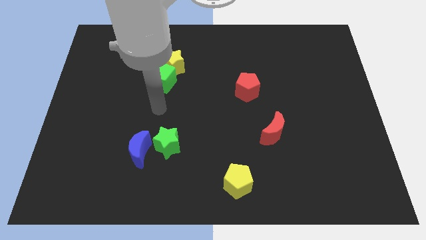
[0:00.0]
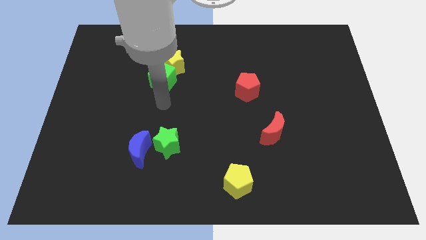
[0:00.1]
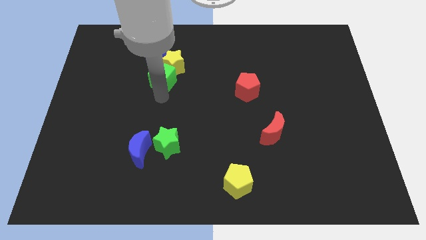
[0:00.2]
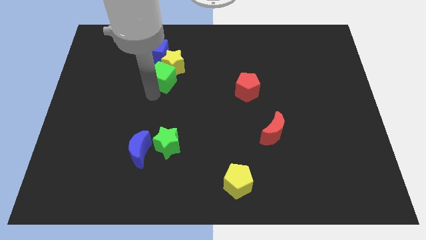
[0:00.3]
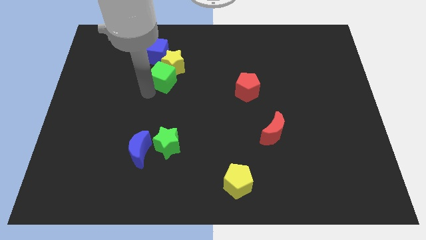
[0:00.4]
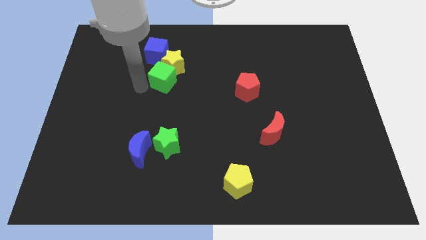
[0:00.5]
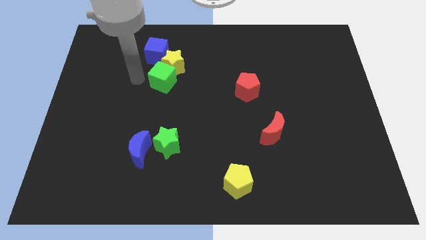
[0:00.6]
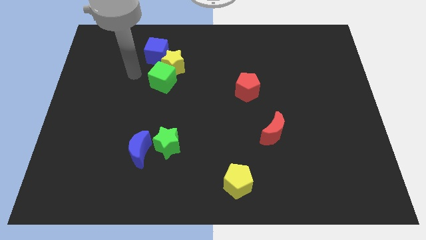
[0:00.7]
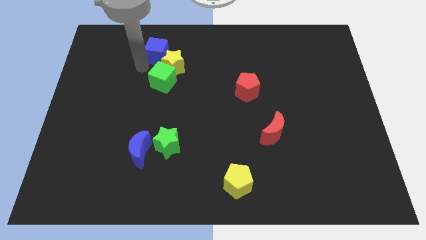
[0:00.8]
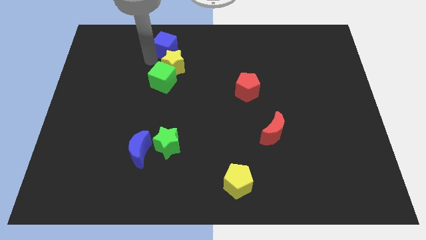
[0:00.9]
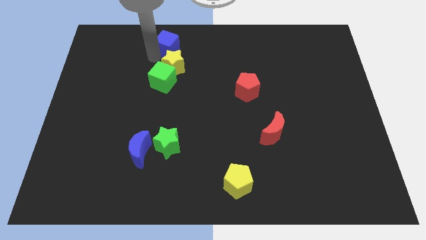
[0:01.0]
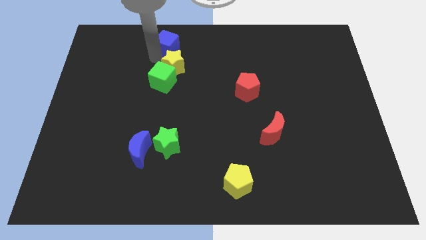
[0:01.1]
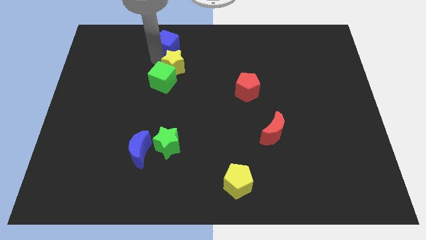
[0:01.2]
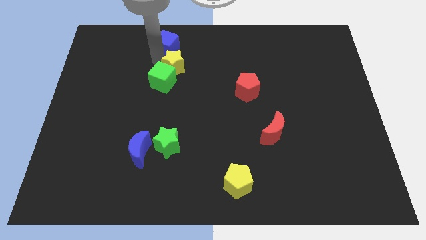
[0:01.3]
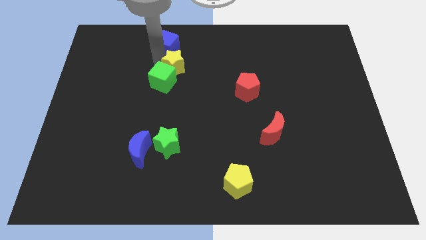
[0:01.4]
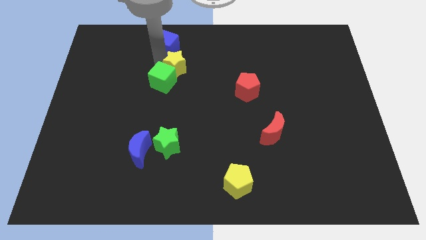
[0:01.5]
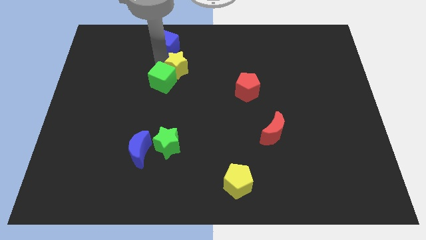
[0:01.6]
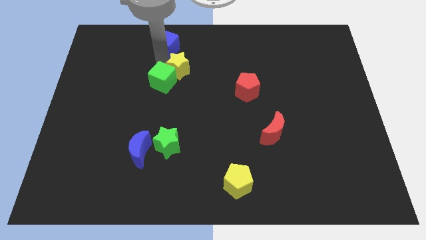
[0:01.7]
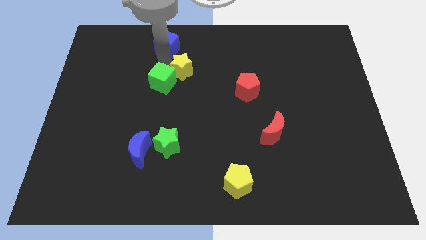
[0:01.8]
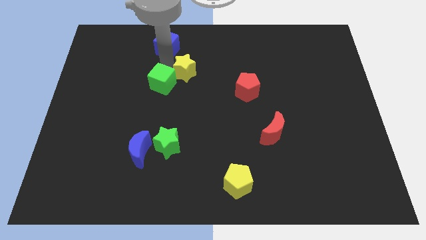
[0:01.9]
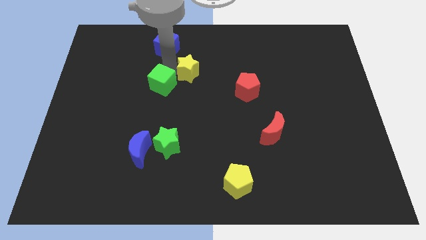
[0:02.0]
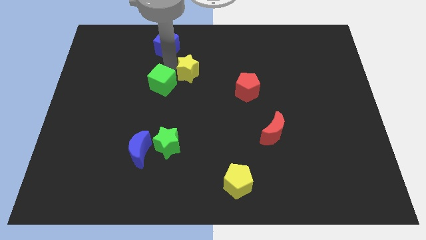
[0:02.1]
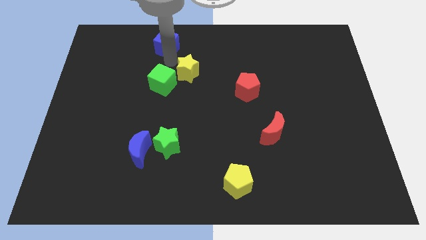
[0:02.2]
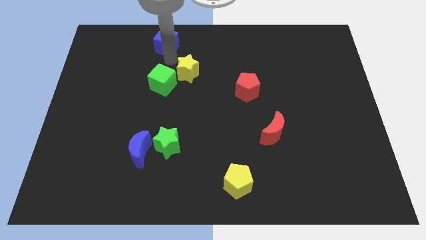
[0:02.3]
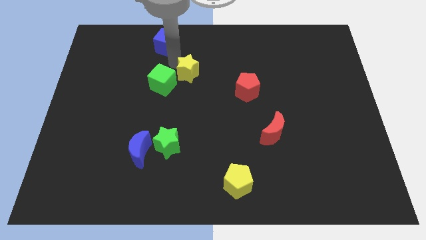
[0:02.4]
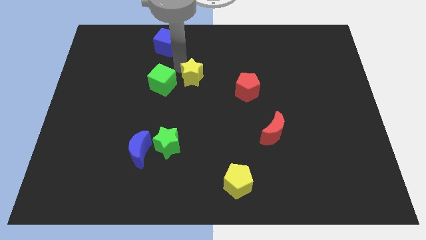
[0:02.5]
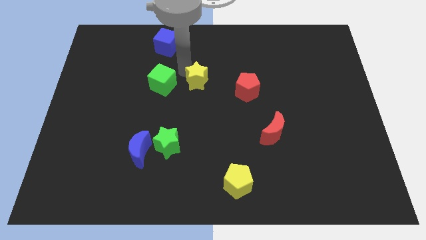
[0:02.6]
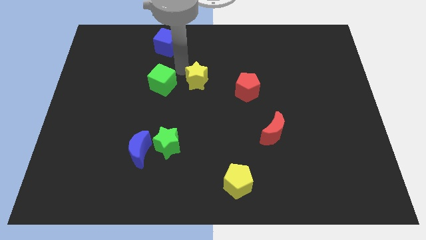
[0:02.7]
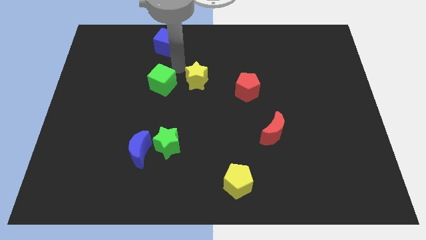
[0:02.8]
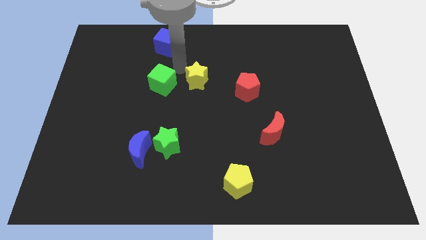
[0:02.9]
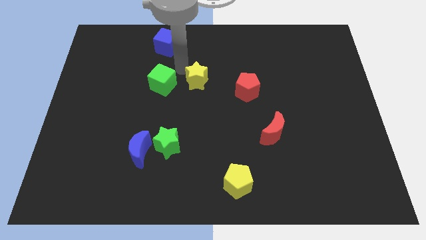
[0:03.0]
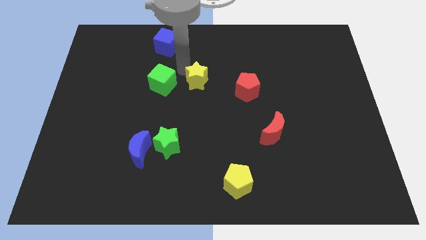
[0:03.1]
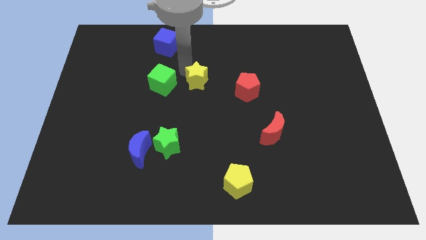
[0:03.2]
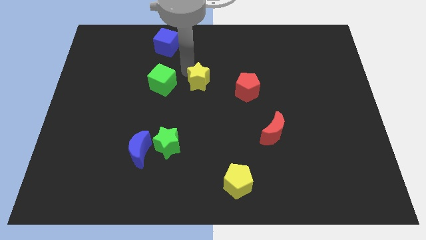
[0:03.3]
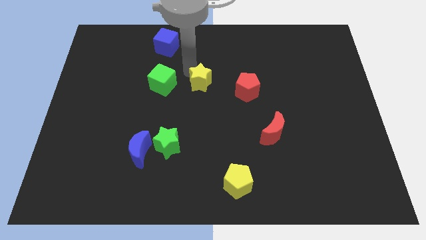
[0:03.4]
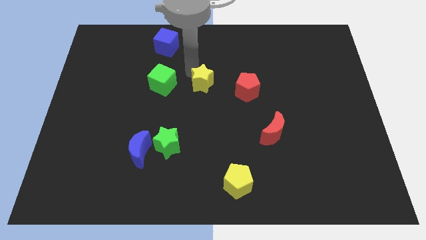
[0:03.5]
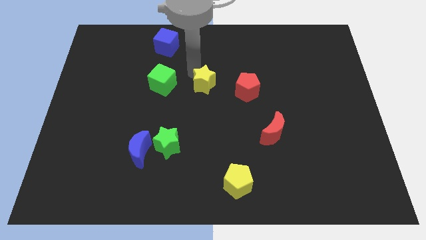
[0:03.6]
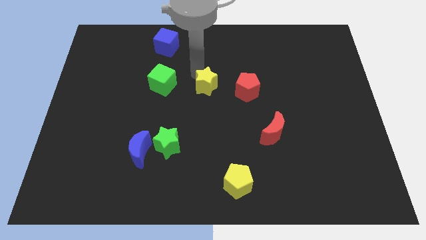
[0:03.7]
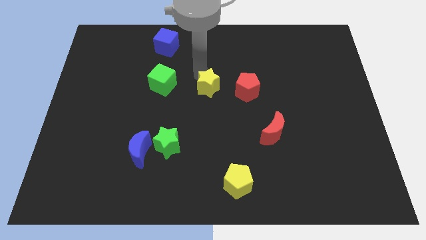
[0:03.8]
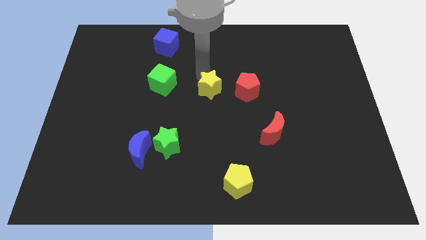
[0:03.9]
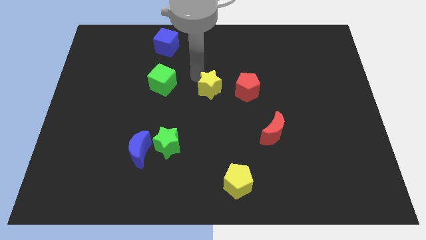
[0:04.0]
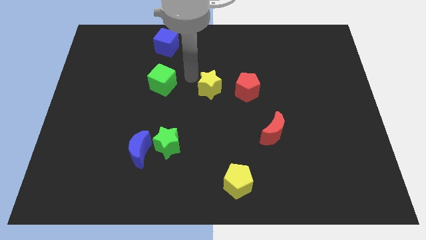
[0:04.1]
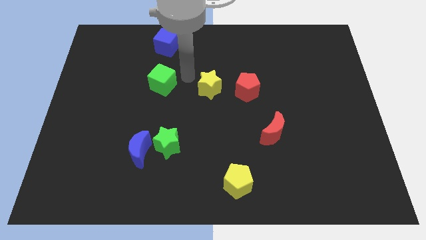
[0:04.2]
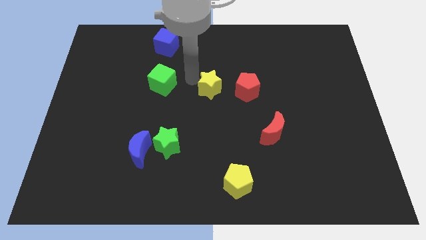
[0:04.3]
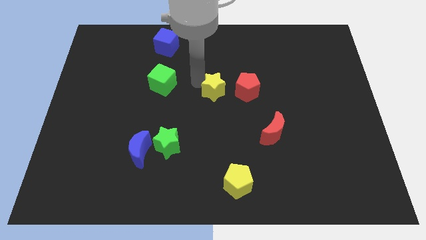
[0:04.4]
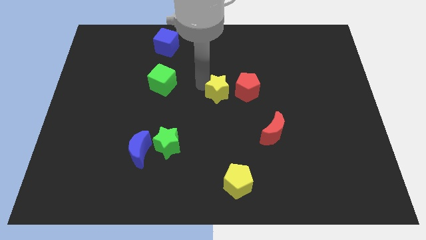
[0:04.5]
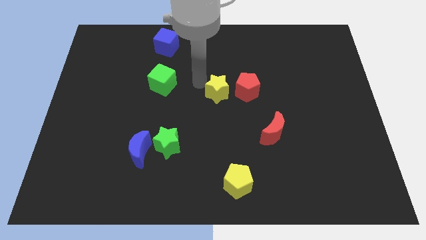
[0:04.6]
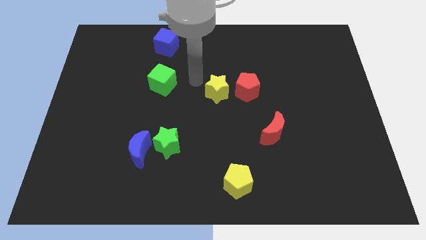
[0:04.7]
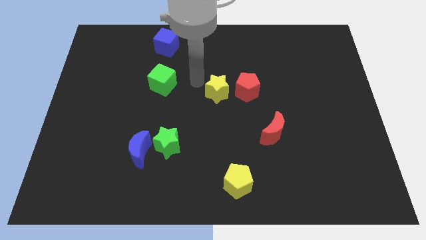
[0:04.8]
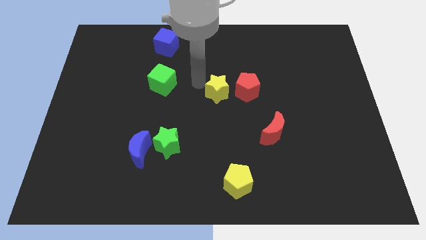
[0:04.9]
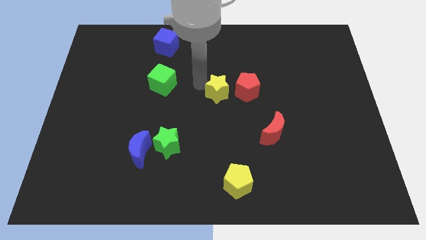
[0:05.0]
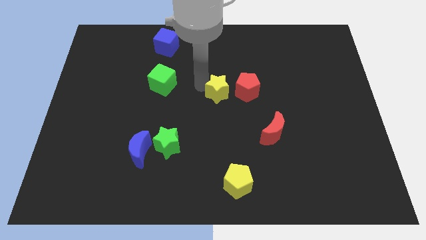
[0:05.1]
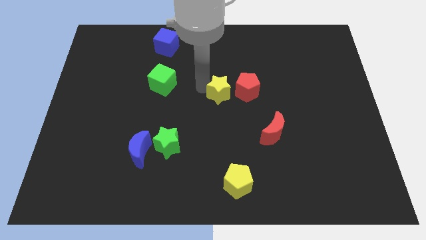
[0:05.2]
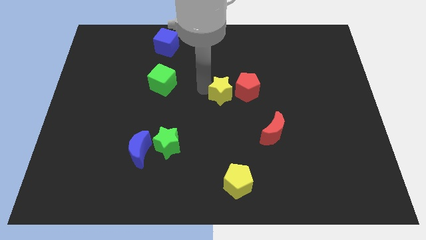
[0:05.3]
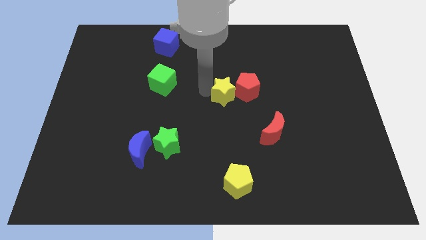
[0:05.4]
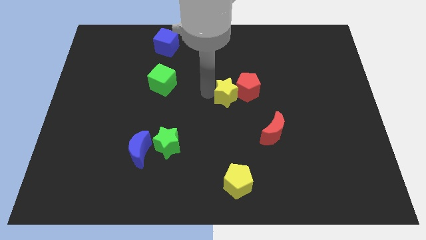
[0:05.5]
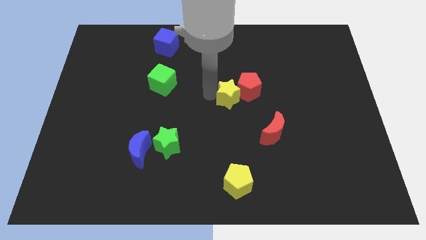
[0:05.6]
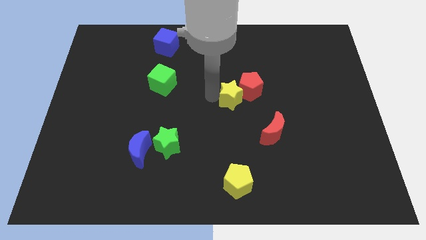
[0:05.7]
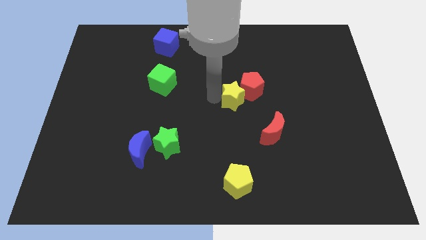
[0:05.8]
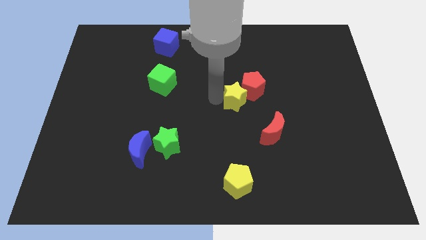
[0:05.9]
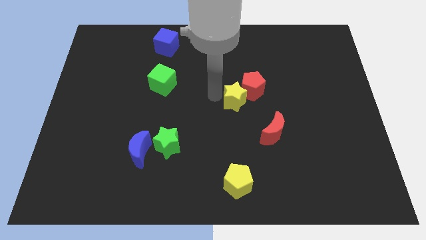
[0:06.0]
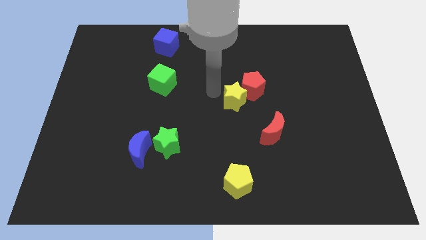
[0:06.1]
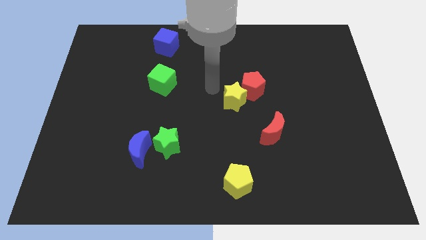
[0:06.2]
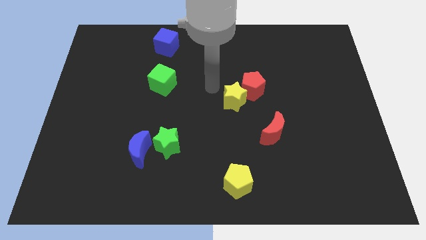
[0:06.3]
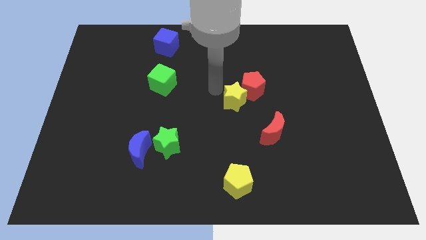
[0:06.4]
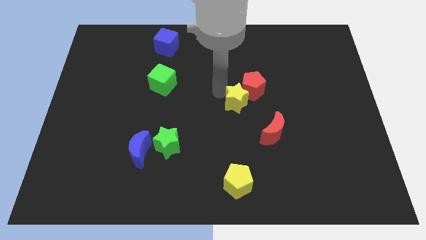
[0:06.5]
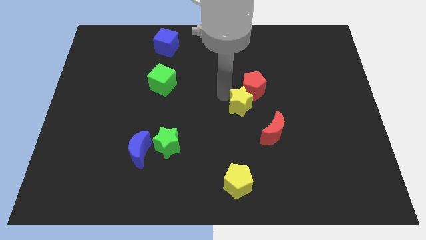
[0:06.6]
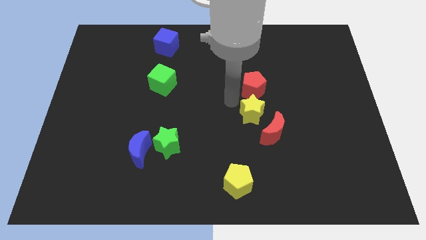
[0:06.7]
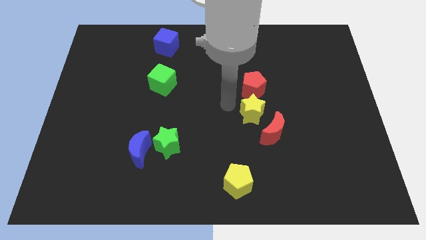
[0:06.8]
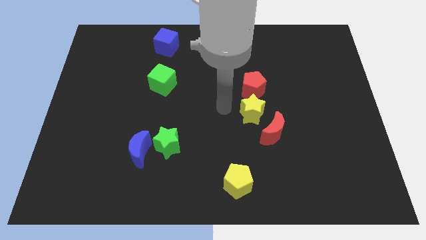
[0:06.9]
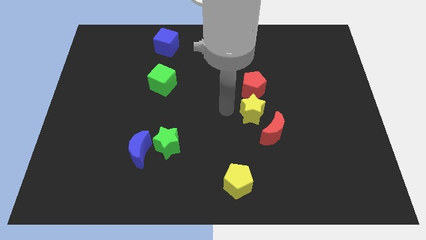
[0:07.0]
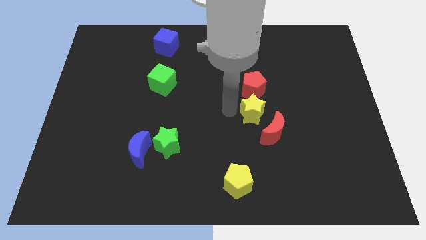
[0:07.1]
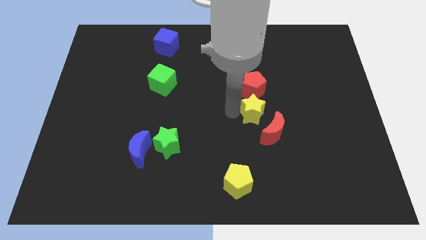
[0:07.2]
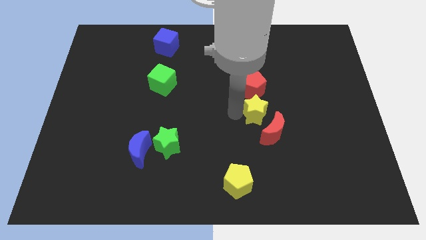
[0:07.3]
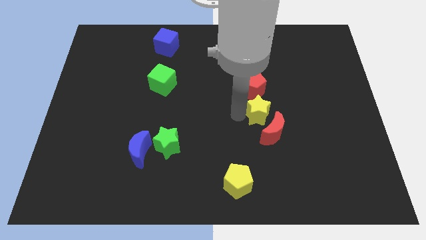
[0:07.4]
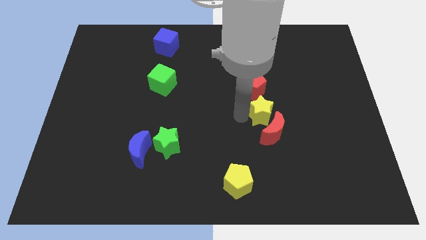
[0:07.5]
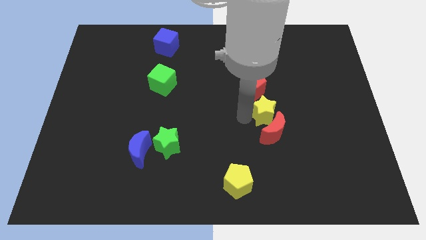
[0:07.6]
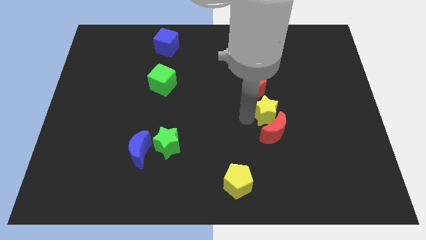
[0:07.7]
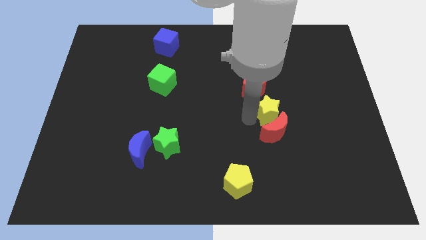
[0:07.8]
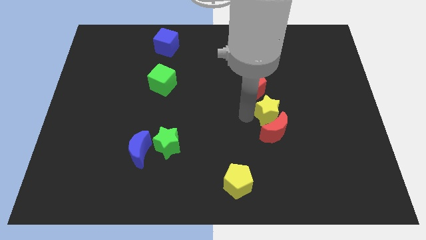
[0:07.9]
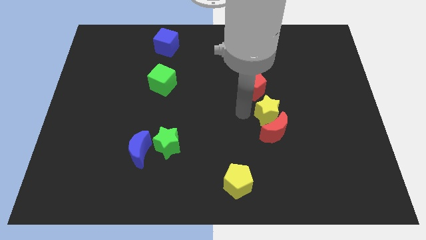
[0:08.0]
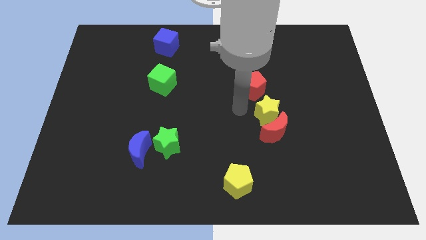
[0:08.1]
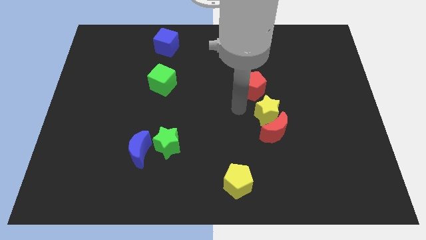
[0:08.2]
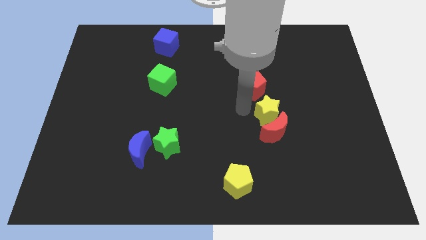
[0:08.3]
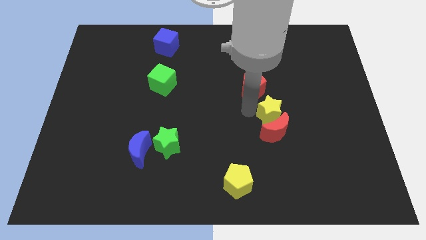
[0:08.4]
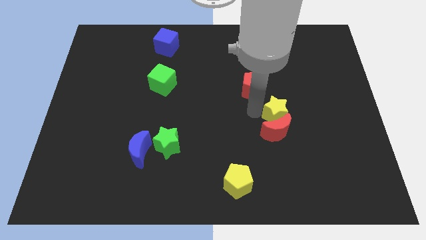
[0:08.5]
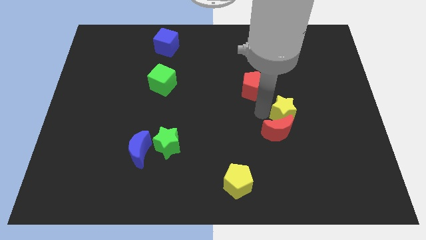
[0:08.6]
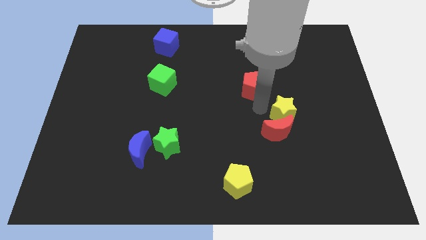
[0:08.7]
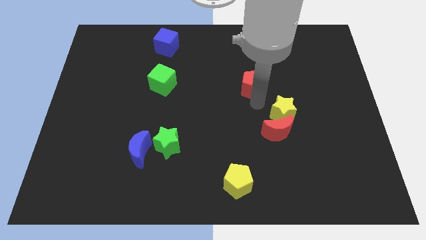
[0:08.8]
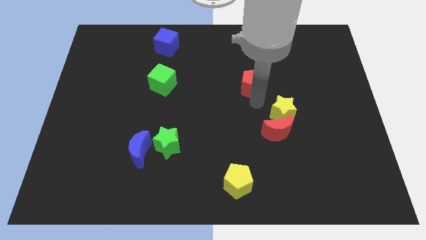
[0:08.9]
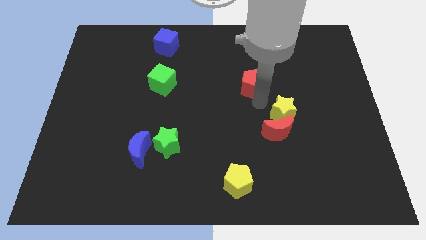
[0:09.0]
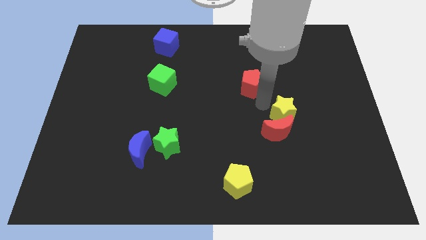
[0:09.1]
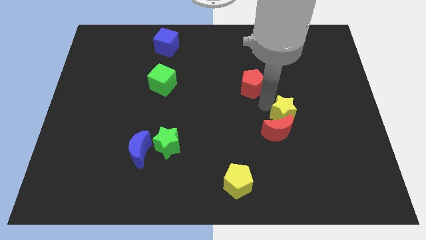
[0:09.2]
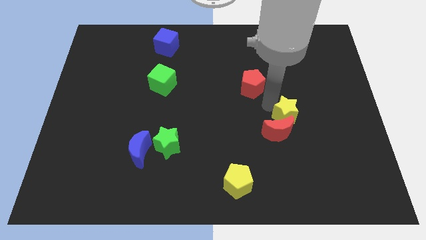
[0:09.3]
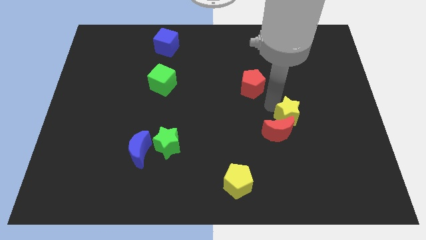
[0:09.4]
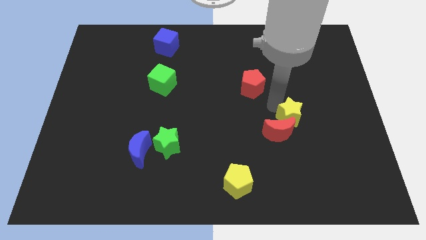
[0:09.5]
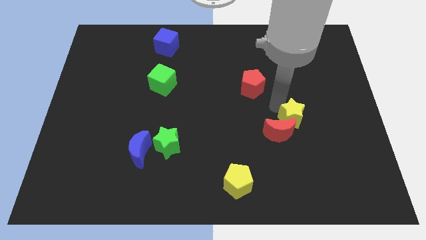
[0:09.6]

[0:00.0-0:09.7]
slide the yellow star to the right side of the red moon
